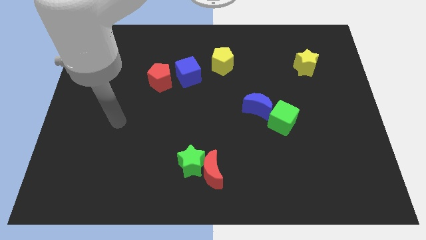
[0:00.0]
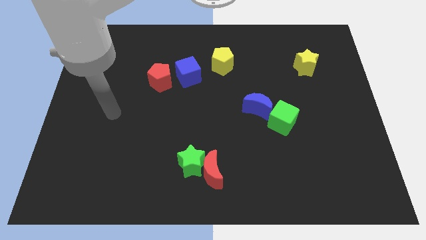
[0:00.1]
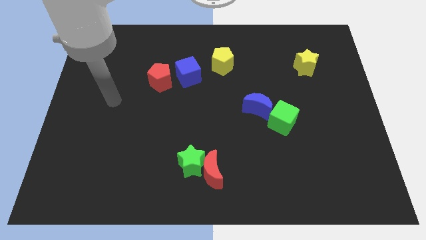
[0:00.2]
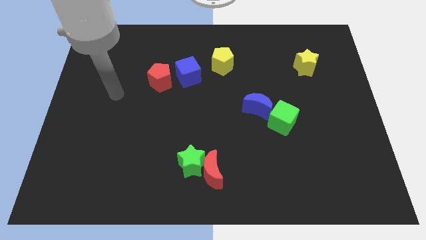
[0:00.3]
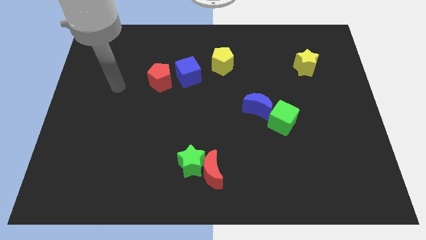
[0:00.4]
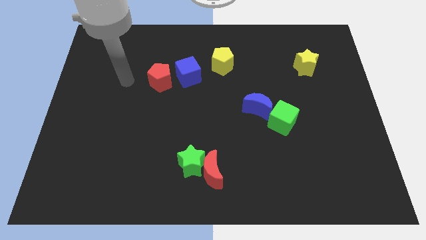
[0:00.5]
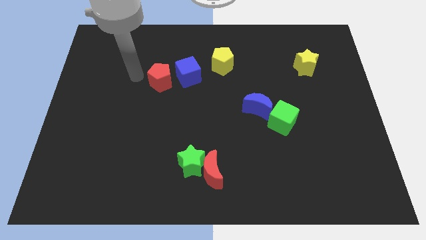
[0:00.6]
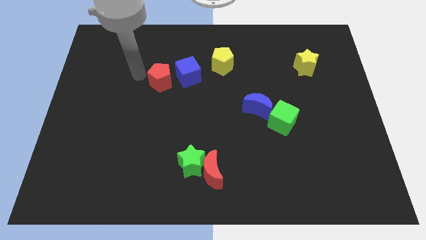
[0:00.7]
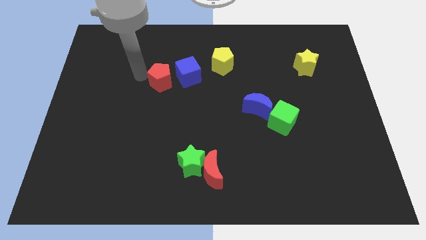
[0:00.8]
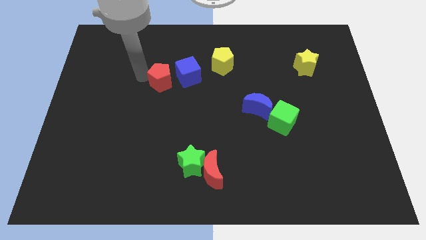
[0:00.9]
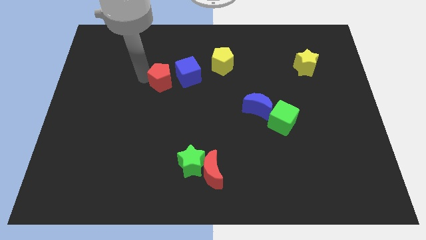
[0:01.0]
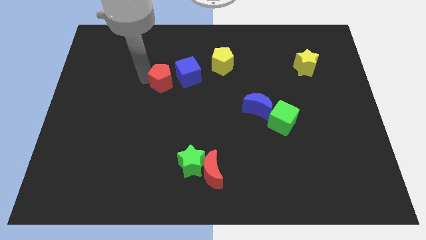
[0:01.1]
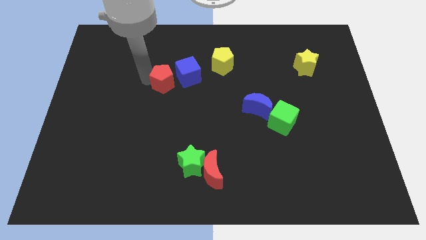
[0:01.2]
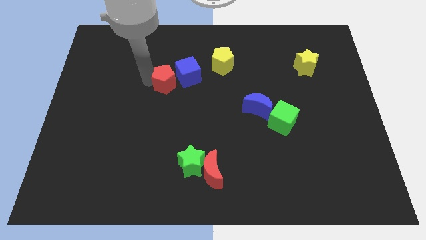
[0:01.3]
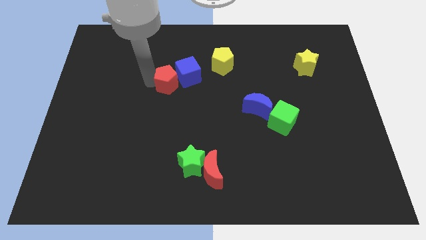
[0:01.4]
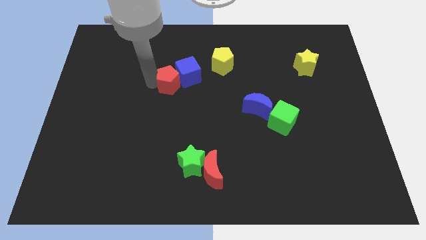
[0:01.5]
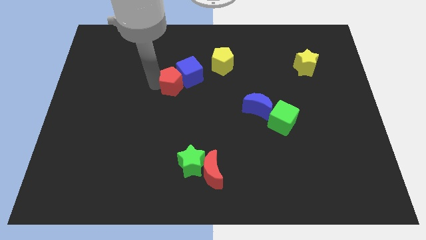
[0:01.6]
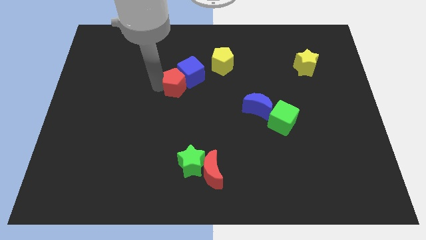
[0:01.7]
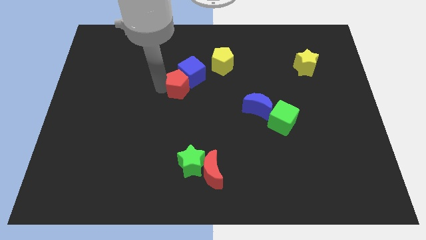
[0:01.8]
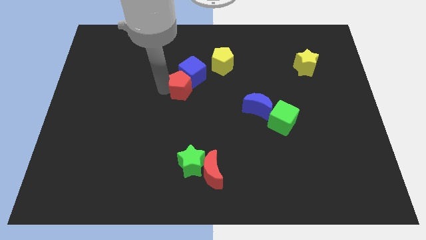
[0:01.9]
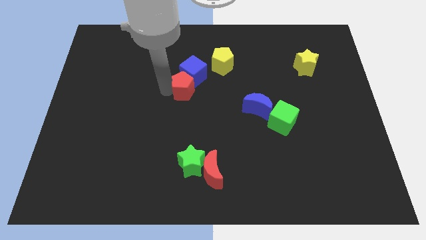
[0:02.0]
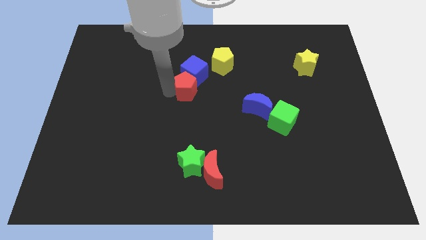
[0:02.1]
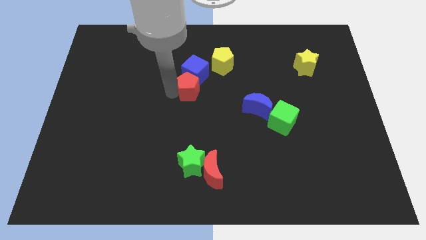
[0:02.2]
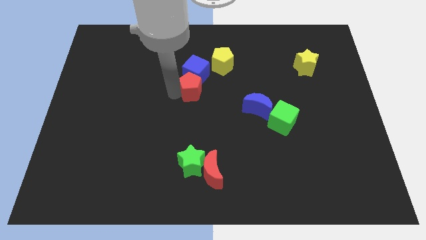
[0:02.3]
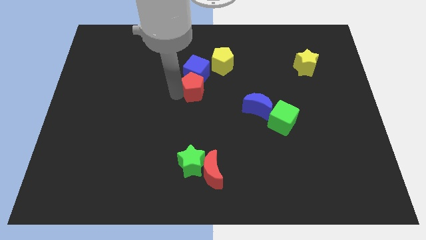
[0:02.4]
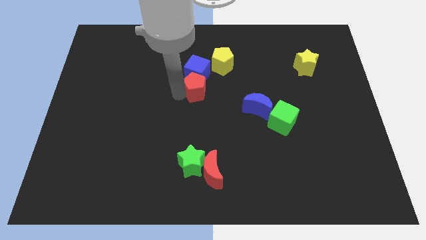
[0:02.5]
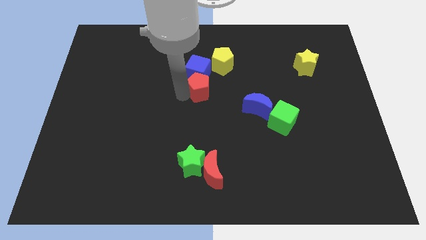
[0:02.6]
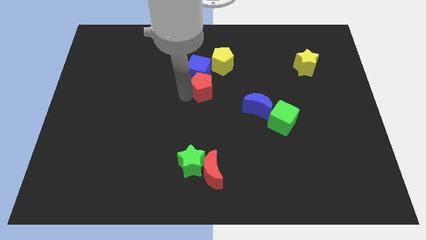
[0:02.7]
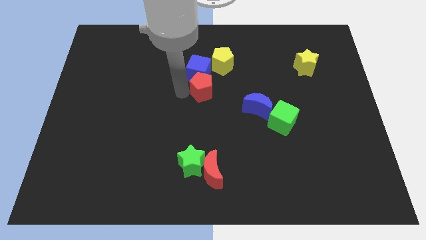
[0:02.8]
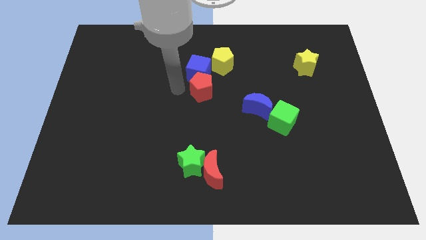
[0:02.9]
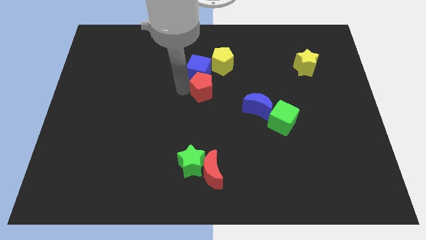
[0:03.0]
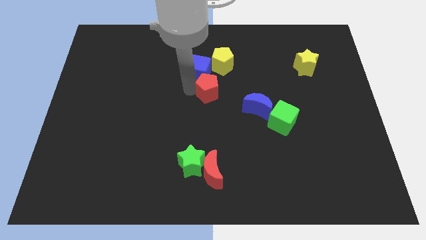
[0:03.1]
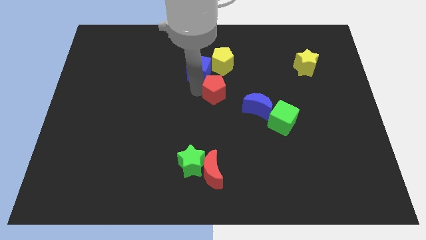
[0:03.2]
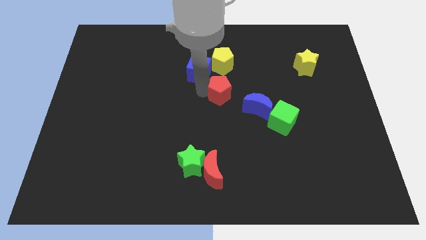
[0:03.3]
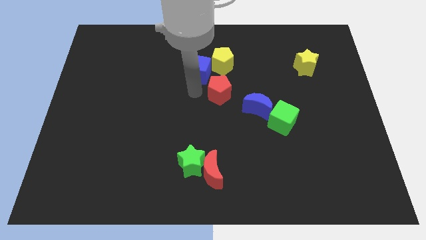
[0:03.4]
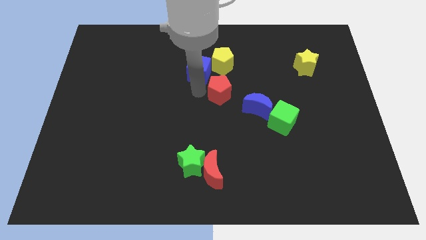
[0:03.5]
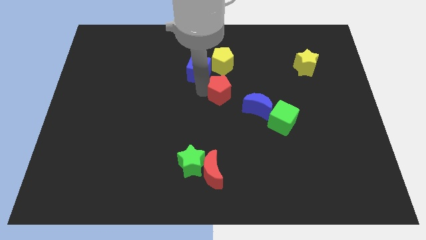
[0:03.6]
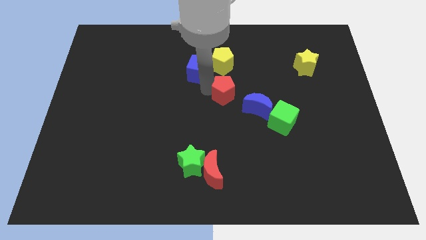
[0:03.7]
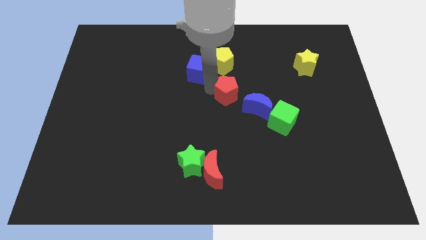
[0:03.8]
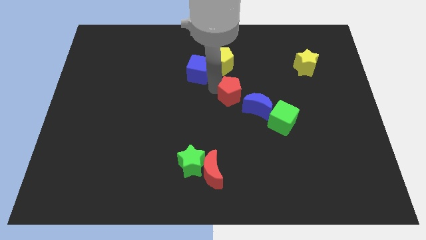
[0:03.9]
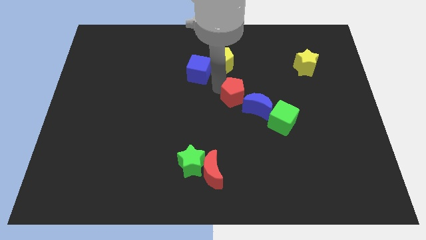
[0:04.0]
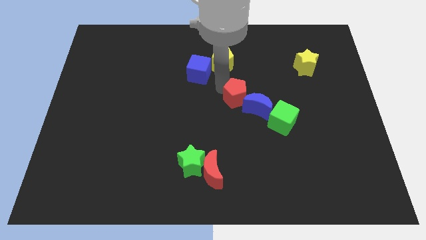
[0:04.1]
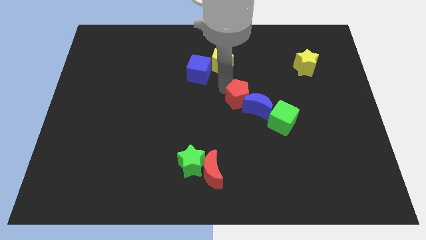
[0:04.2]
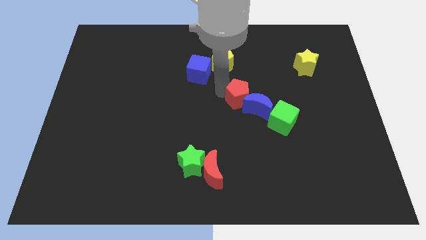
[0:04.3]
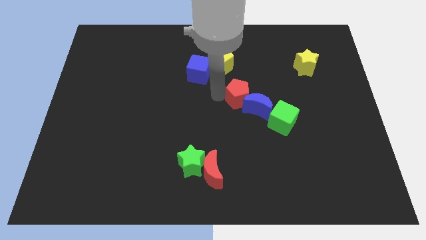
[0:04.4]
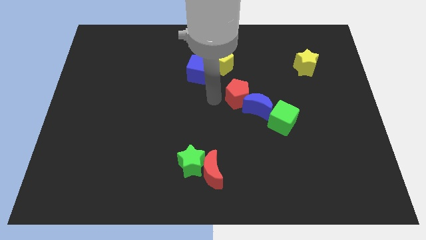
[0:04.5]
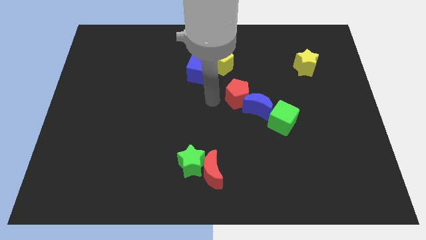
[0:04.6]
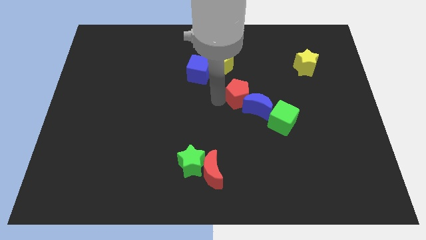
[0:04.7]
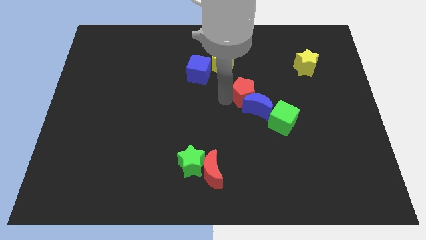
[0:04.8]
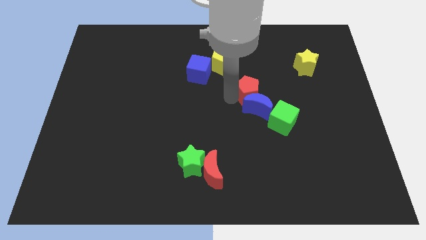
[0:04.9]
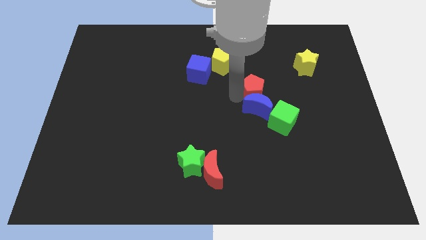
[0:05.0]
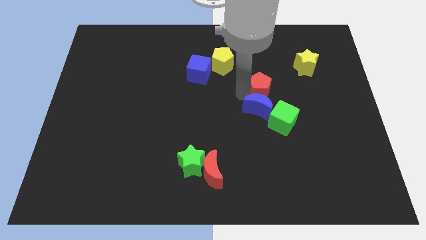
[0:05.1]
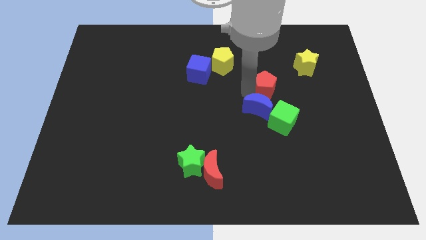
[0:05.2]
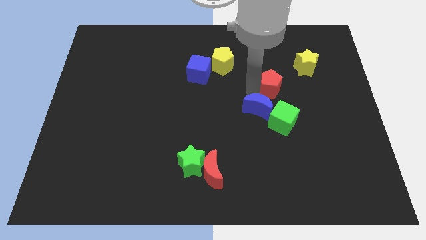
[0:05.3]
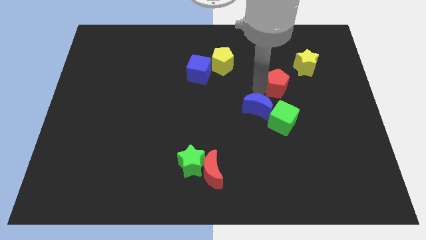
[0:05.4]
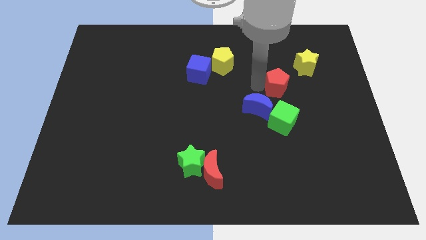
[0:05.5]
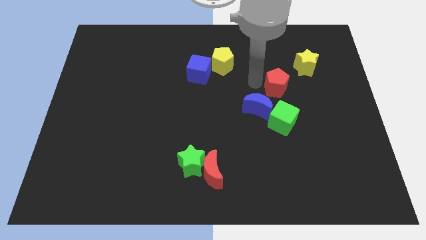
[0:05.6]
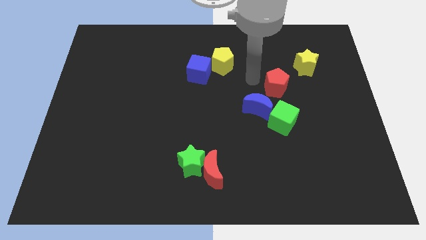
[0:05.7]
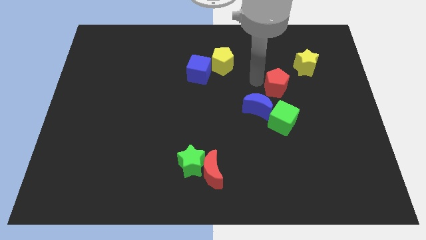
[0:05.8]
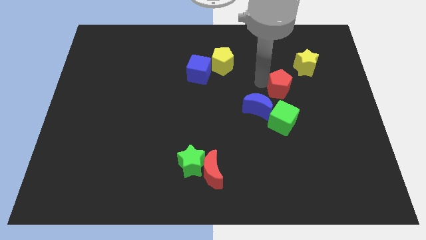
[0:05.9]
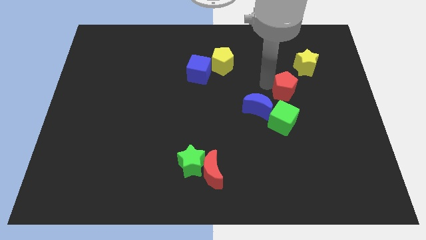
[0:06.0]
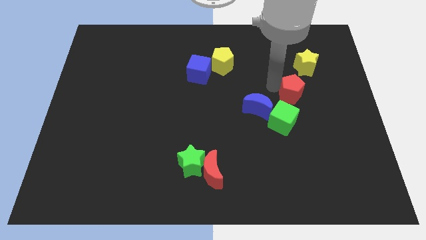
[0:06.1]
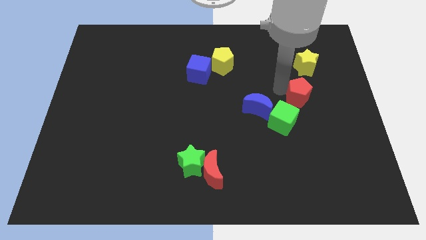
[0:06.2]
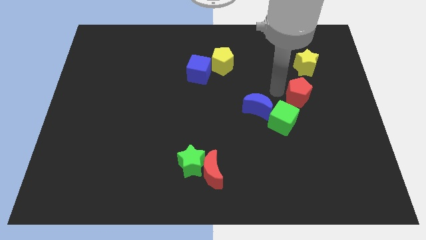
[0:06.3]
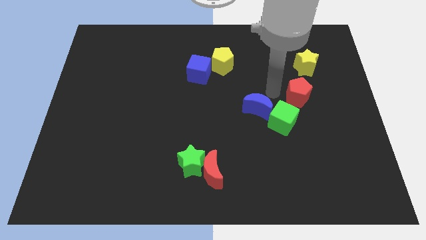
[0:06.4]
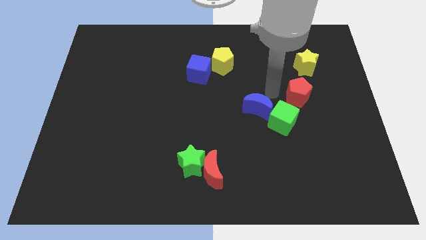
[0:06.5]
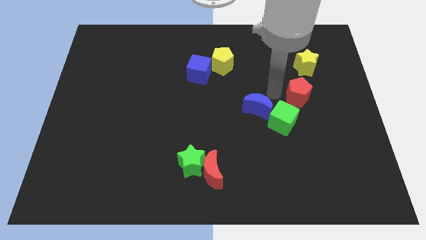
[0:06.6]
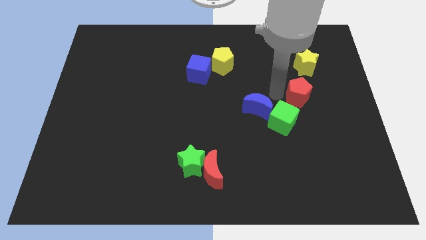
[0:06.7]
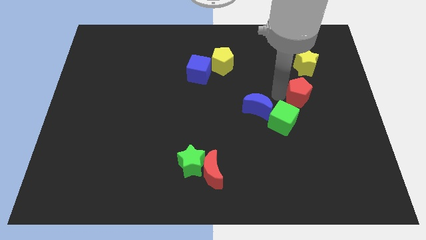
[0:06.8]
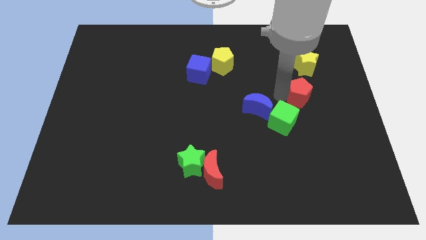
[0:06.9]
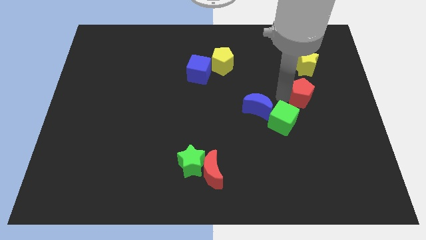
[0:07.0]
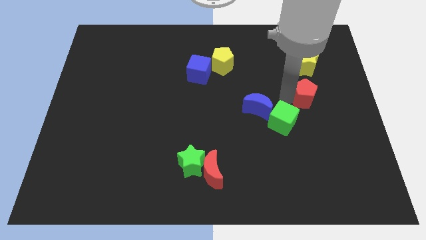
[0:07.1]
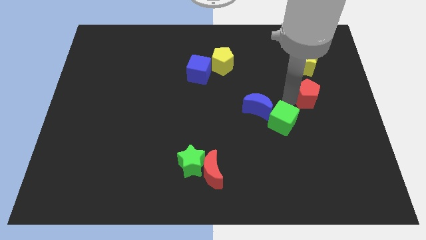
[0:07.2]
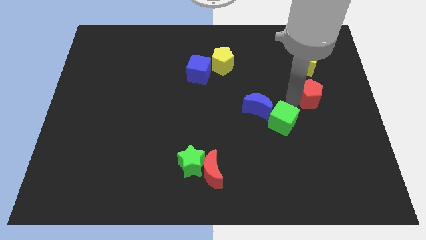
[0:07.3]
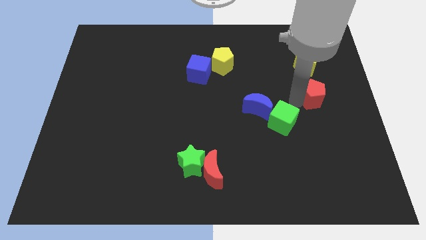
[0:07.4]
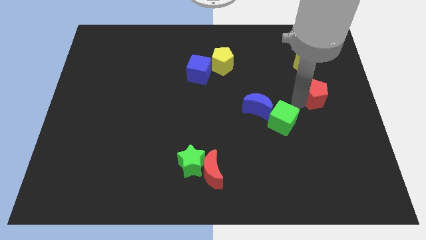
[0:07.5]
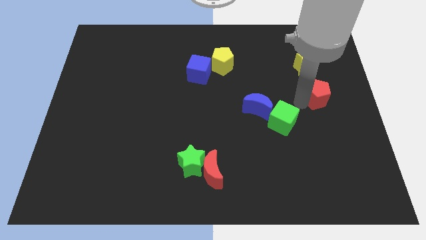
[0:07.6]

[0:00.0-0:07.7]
slide the red pentagon to the right side
